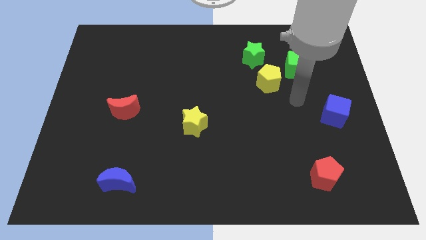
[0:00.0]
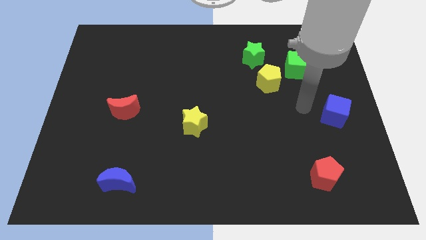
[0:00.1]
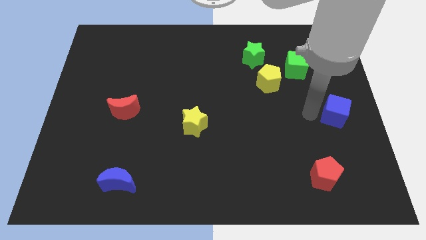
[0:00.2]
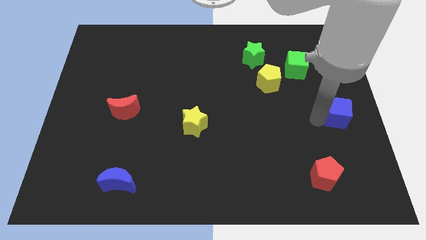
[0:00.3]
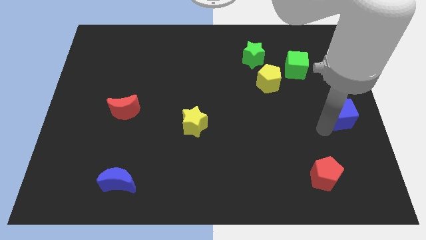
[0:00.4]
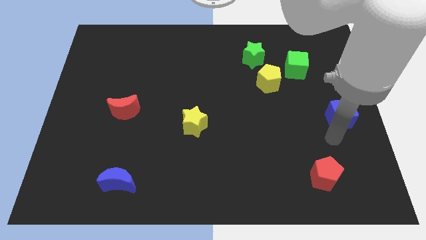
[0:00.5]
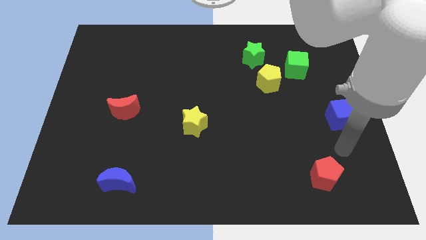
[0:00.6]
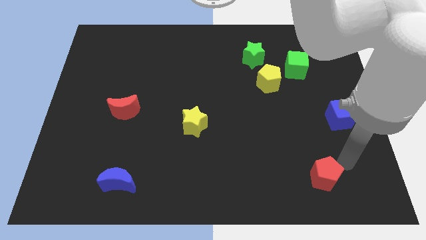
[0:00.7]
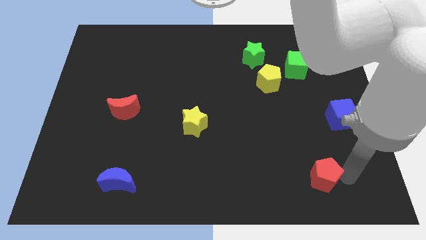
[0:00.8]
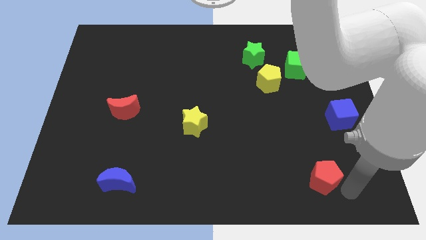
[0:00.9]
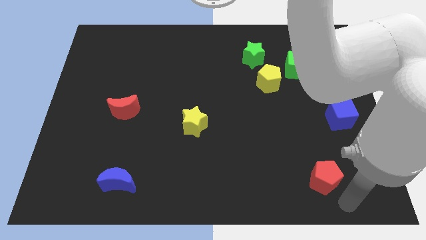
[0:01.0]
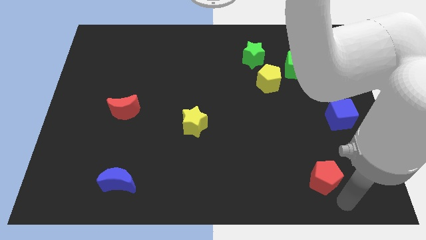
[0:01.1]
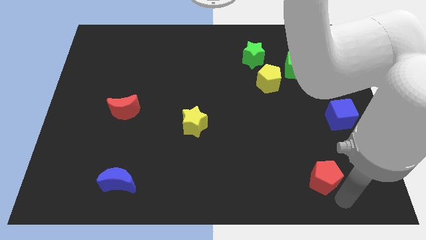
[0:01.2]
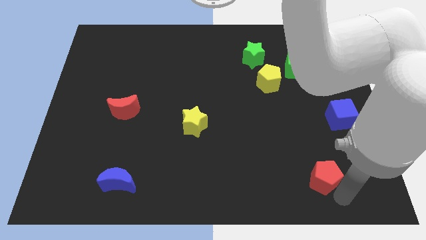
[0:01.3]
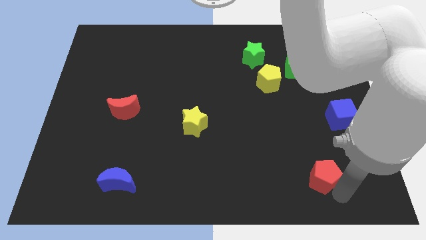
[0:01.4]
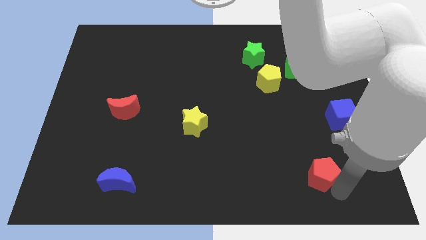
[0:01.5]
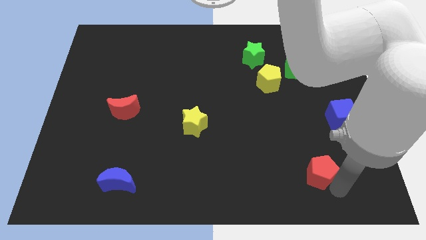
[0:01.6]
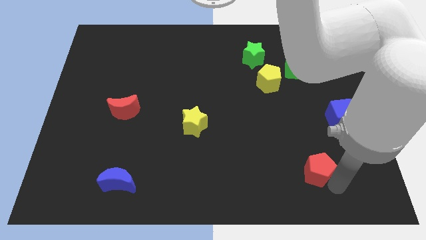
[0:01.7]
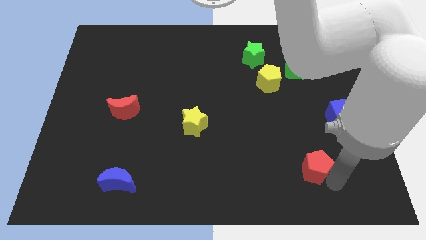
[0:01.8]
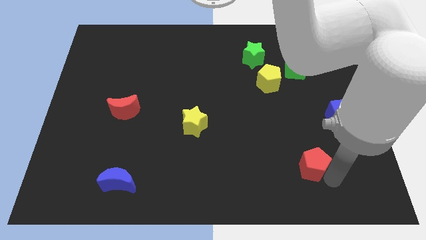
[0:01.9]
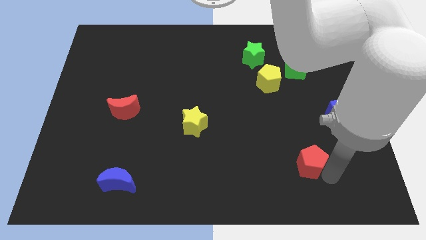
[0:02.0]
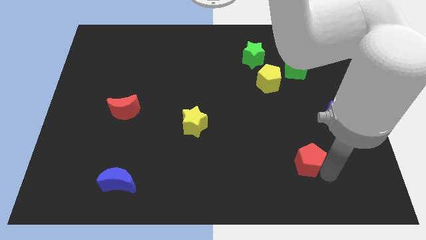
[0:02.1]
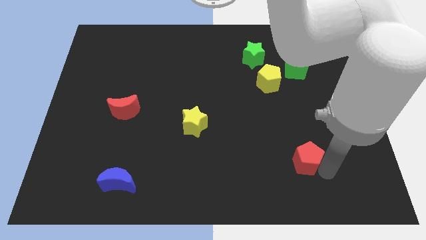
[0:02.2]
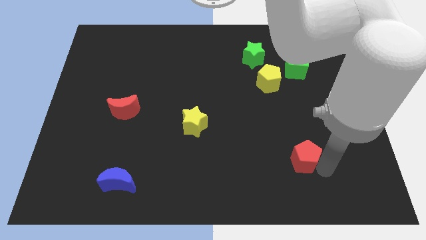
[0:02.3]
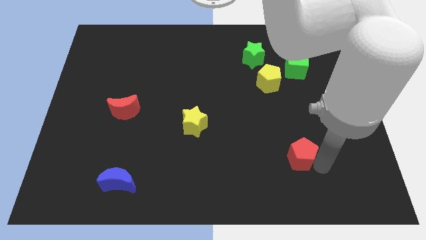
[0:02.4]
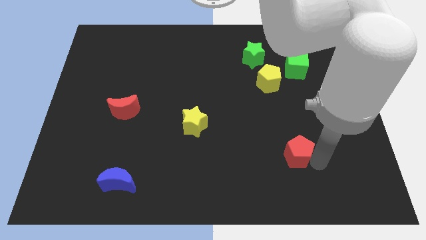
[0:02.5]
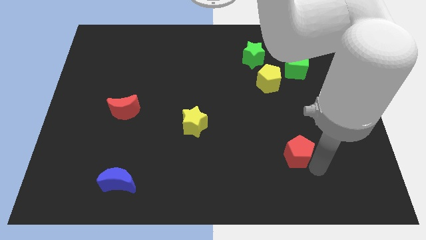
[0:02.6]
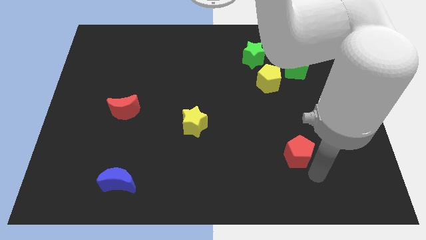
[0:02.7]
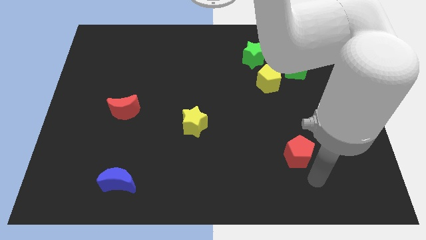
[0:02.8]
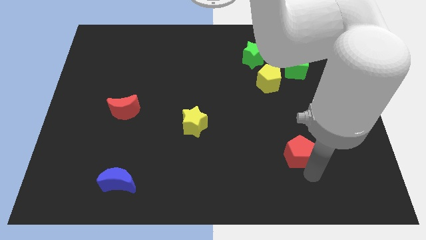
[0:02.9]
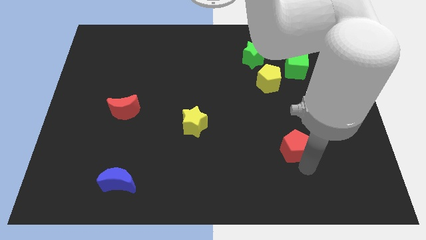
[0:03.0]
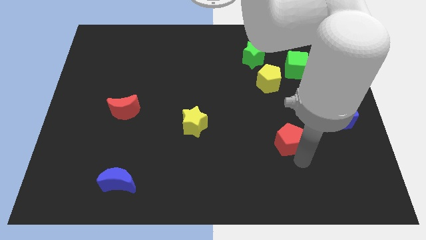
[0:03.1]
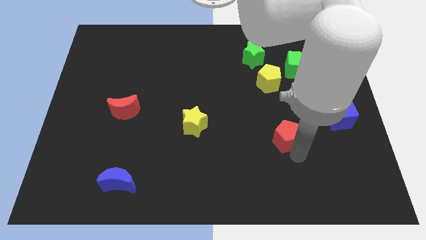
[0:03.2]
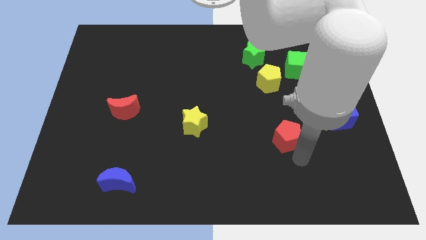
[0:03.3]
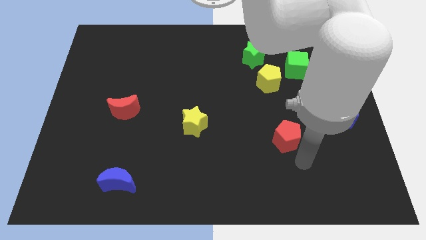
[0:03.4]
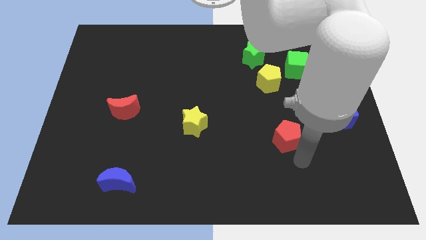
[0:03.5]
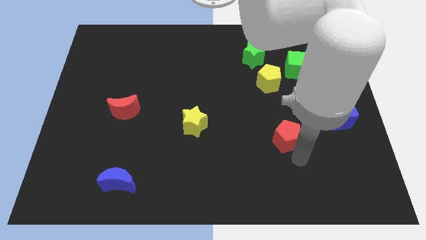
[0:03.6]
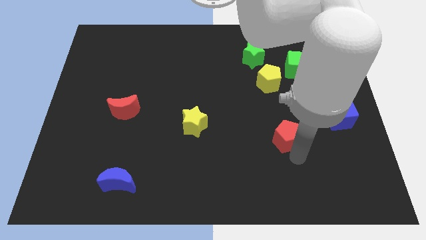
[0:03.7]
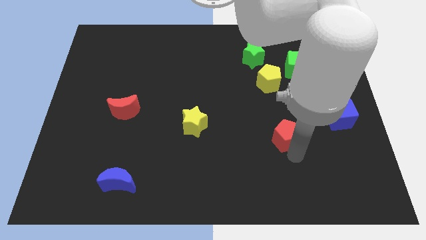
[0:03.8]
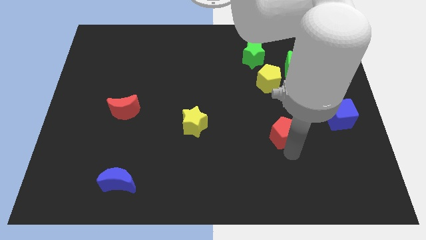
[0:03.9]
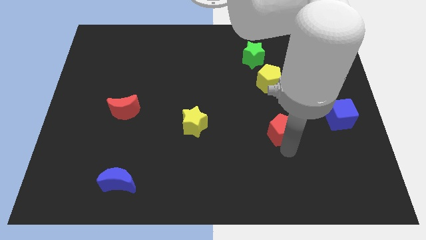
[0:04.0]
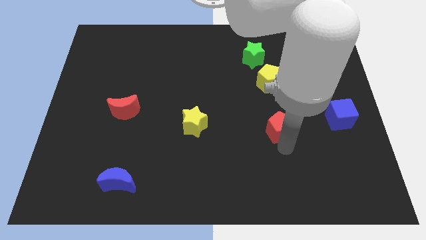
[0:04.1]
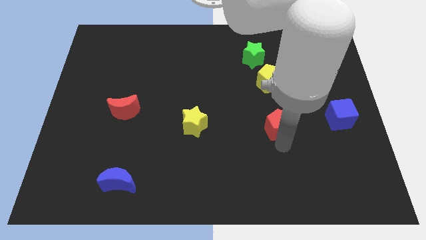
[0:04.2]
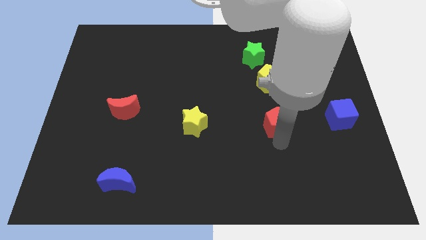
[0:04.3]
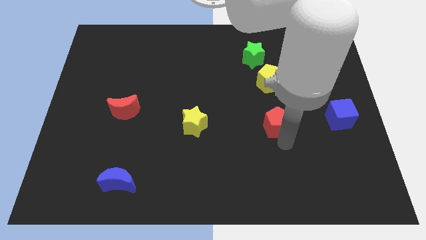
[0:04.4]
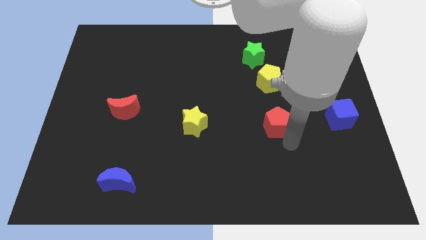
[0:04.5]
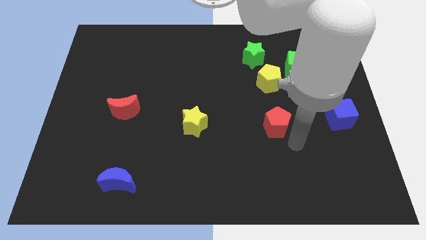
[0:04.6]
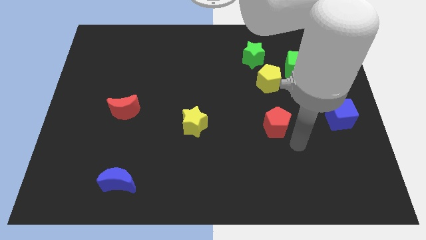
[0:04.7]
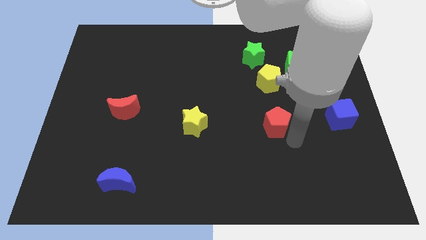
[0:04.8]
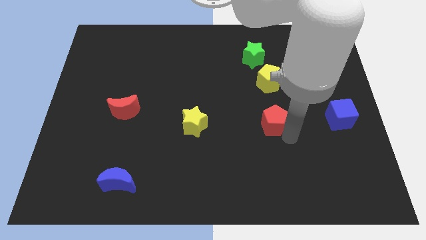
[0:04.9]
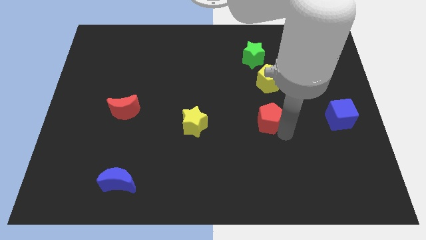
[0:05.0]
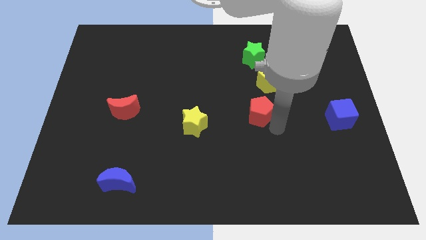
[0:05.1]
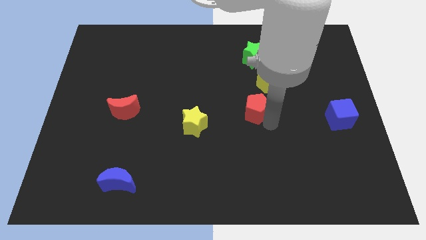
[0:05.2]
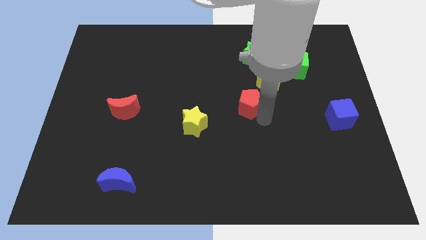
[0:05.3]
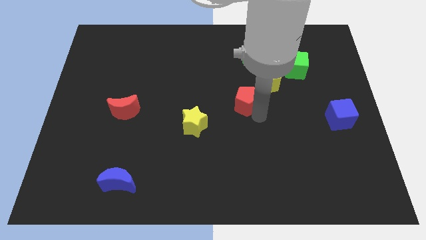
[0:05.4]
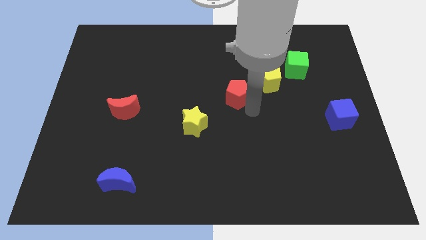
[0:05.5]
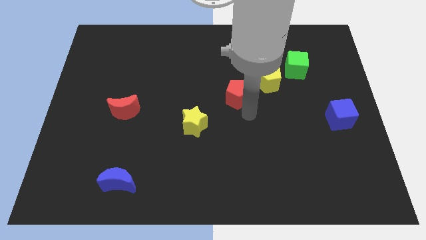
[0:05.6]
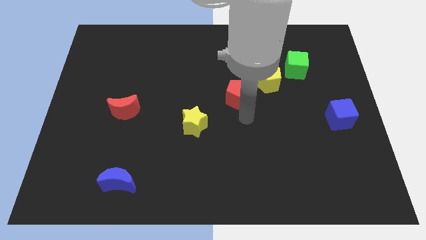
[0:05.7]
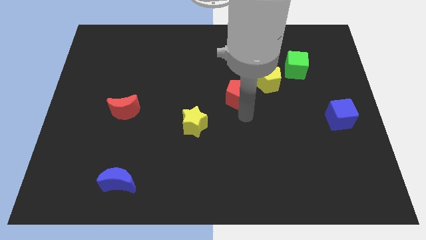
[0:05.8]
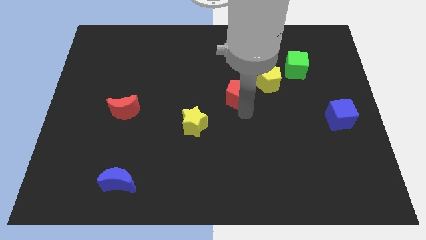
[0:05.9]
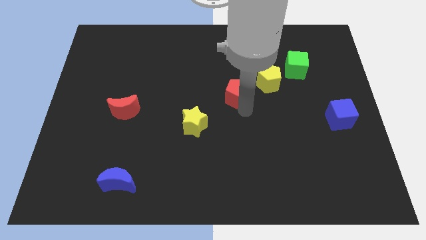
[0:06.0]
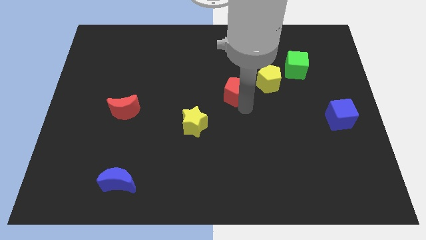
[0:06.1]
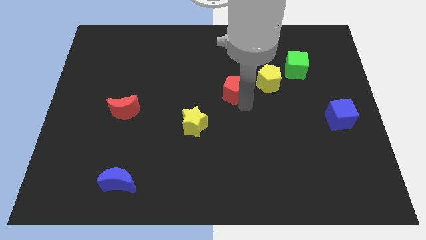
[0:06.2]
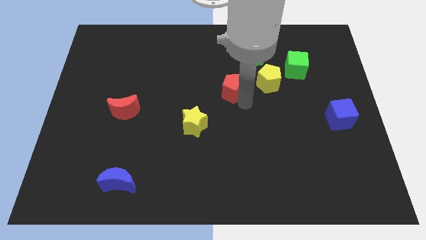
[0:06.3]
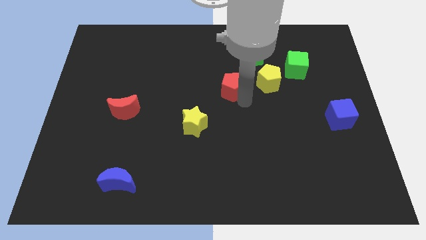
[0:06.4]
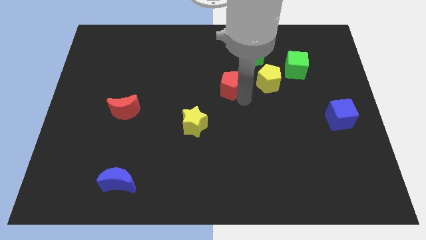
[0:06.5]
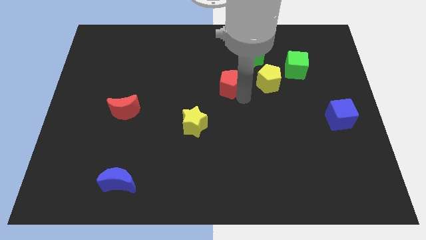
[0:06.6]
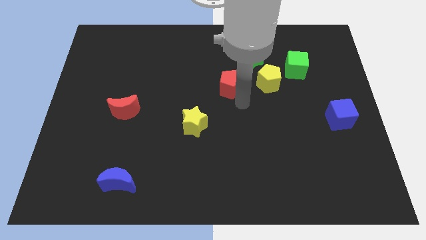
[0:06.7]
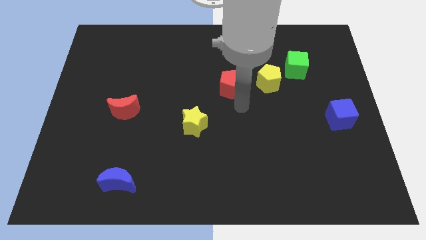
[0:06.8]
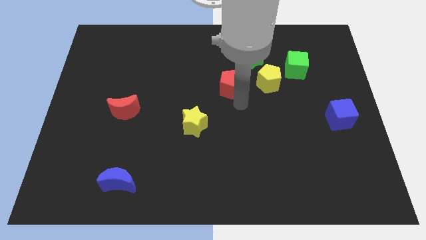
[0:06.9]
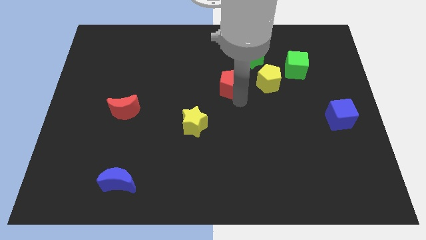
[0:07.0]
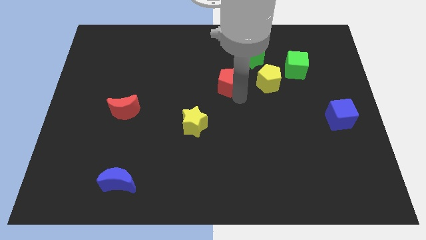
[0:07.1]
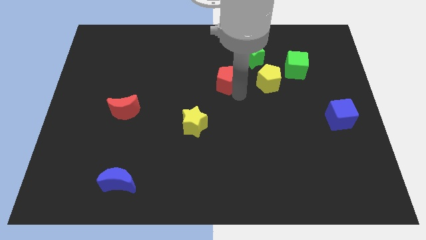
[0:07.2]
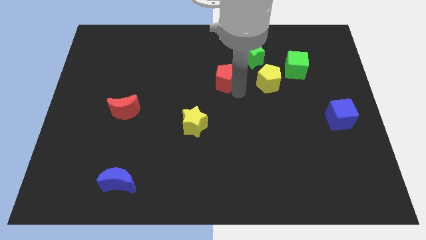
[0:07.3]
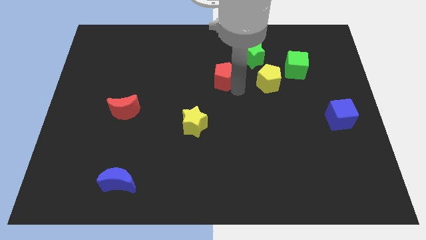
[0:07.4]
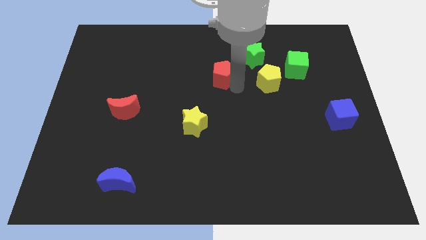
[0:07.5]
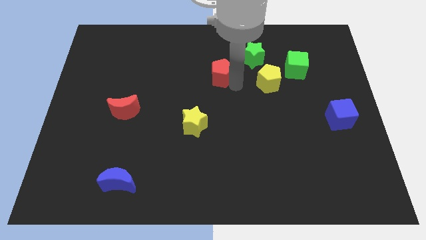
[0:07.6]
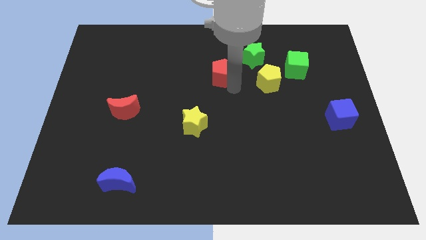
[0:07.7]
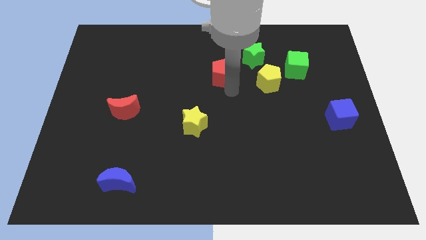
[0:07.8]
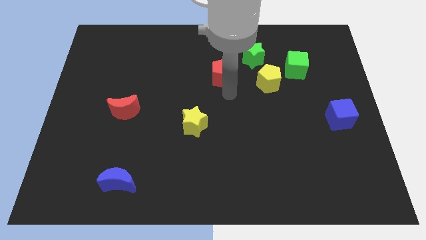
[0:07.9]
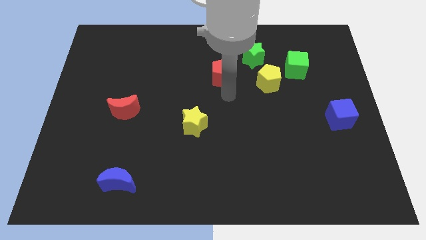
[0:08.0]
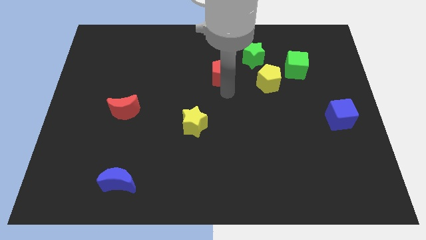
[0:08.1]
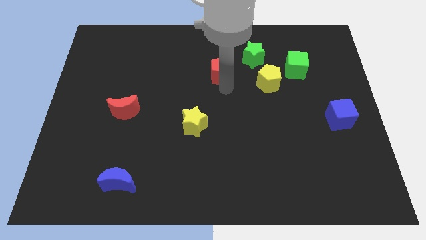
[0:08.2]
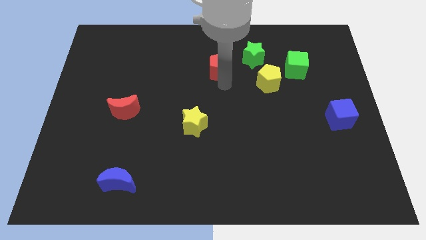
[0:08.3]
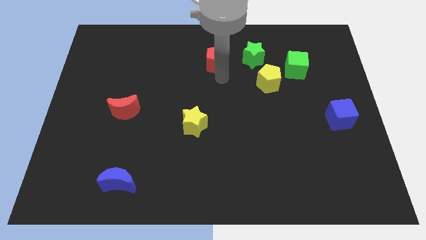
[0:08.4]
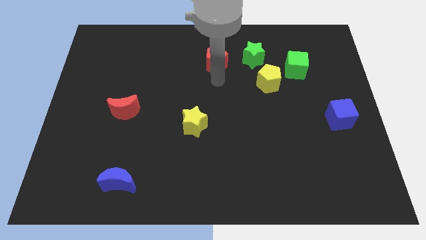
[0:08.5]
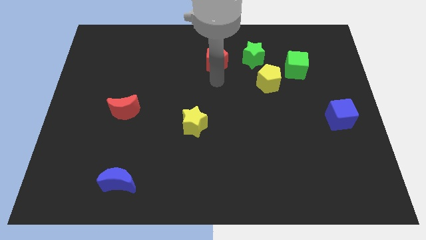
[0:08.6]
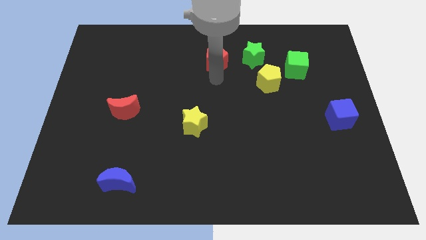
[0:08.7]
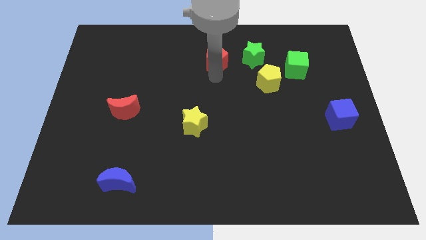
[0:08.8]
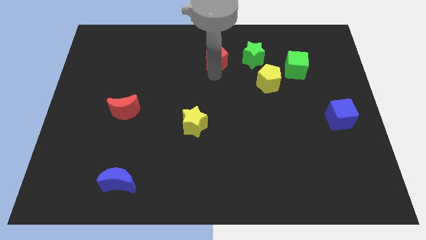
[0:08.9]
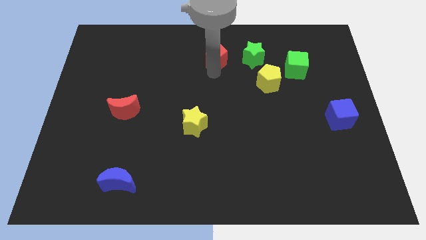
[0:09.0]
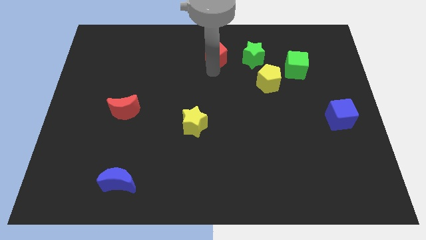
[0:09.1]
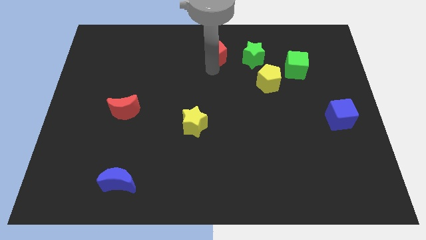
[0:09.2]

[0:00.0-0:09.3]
slide the red pentagon to the towards your base
